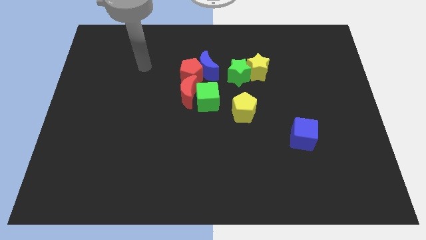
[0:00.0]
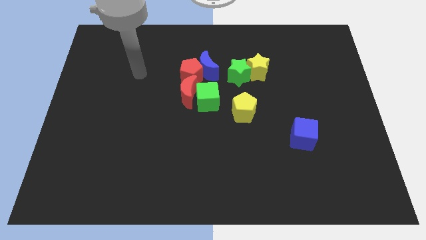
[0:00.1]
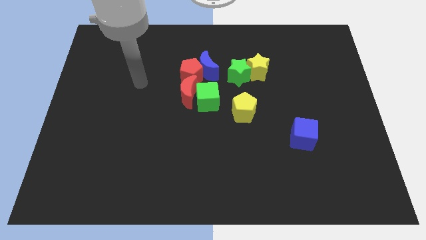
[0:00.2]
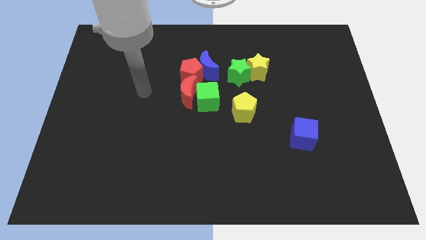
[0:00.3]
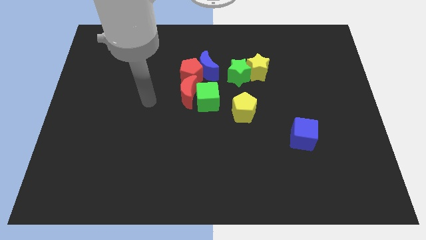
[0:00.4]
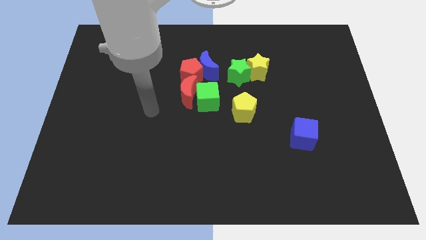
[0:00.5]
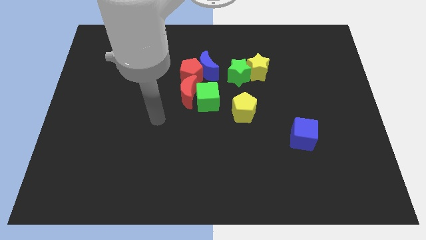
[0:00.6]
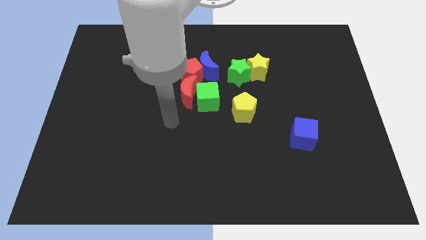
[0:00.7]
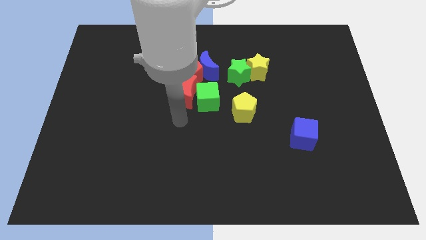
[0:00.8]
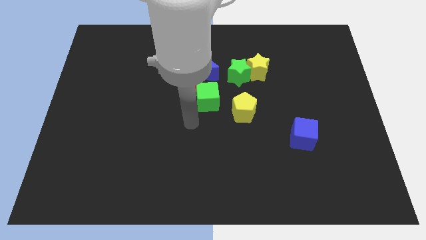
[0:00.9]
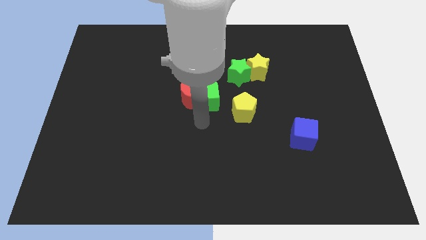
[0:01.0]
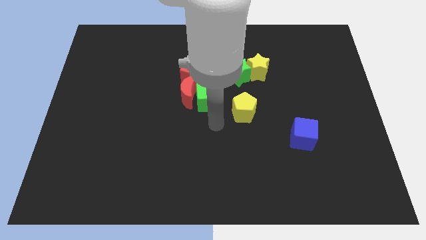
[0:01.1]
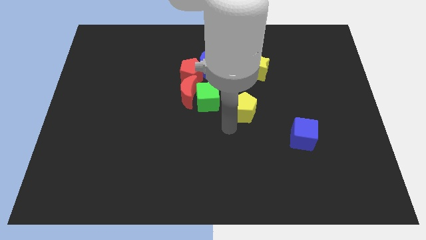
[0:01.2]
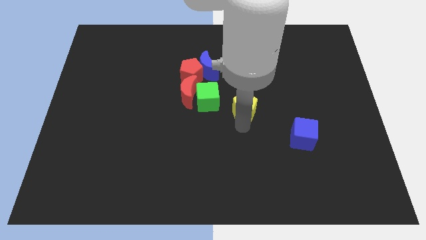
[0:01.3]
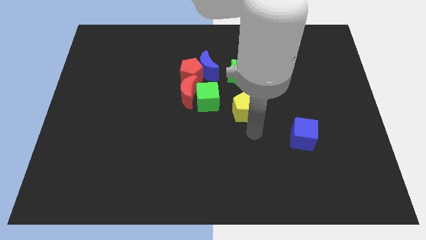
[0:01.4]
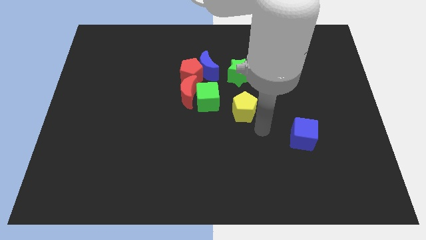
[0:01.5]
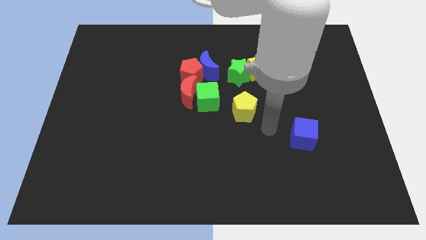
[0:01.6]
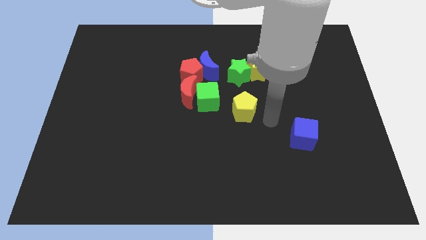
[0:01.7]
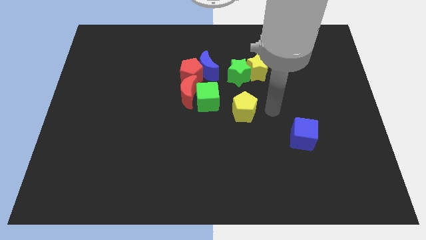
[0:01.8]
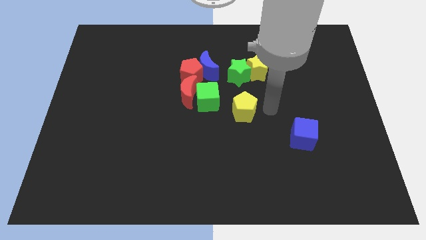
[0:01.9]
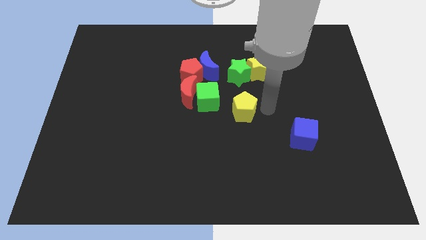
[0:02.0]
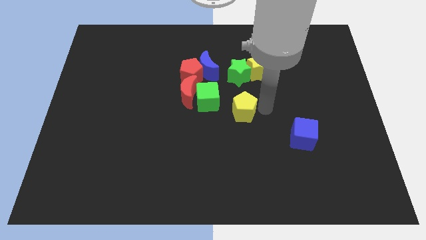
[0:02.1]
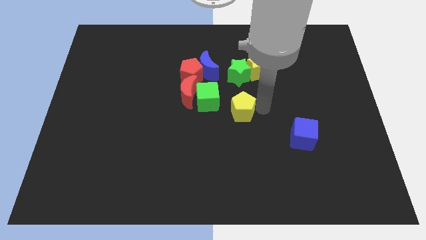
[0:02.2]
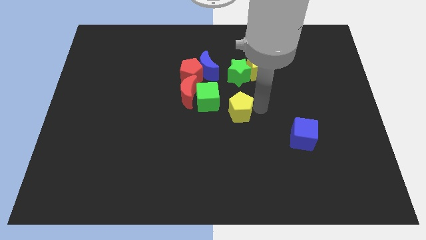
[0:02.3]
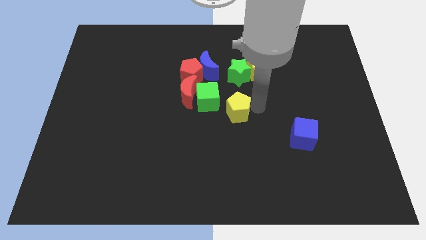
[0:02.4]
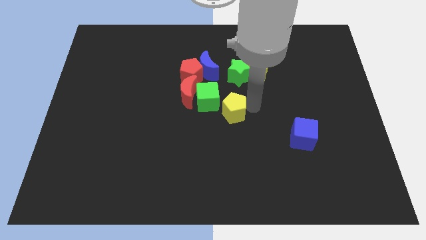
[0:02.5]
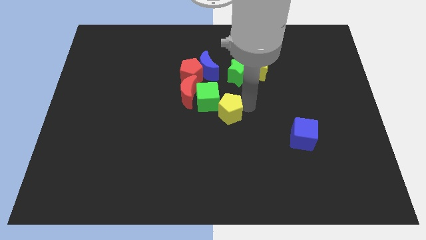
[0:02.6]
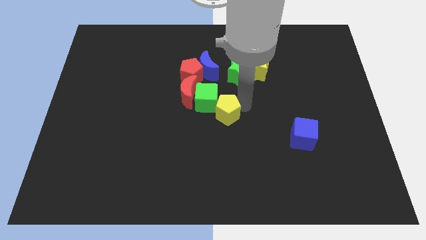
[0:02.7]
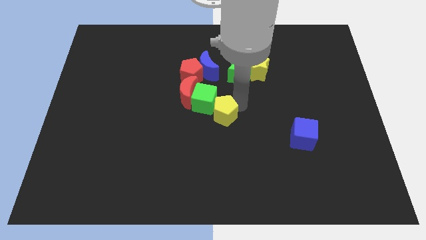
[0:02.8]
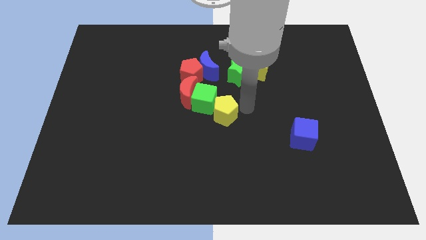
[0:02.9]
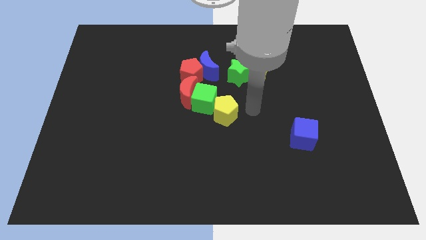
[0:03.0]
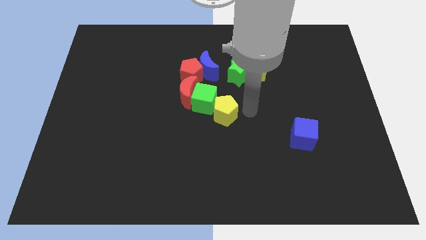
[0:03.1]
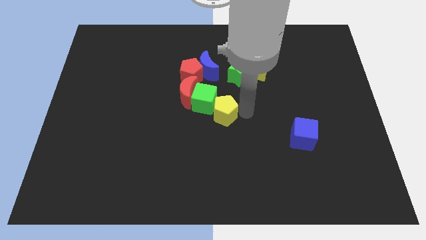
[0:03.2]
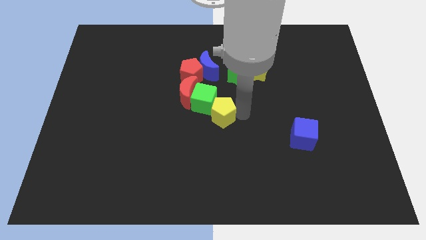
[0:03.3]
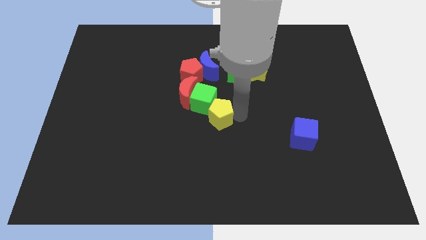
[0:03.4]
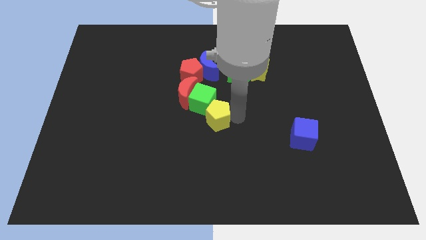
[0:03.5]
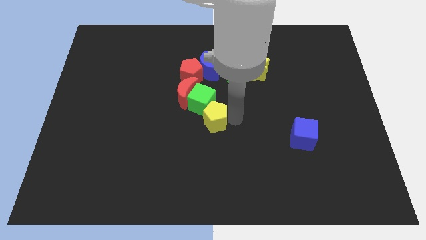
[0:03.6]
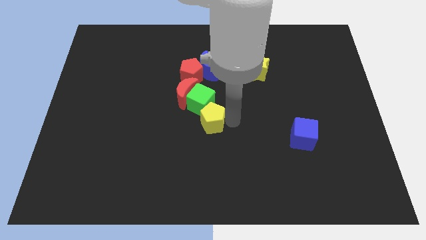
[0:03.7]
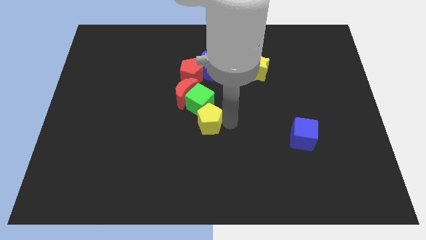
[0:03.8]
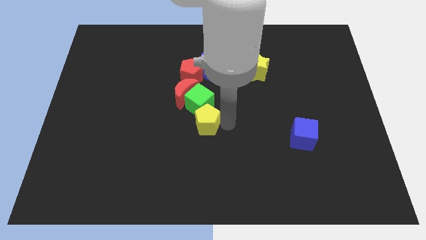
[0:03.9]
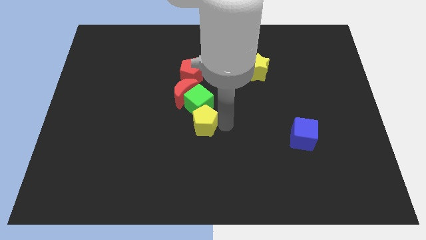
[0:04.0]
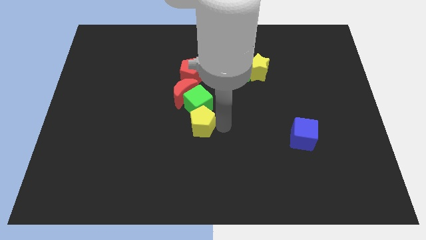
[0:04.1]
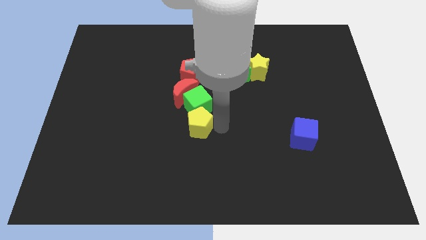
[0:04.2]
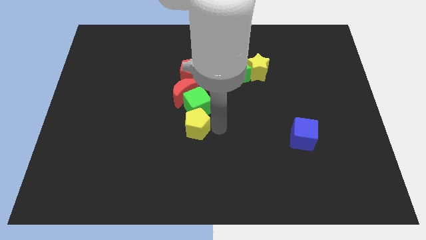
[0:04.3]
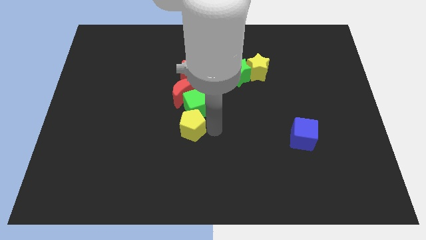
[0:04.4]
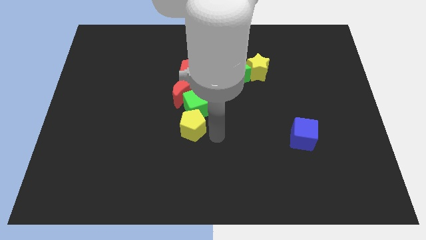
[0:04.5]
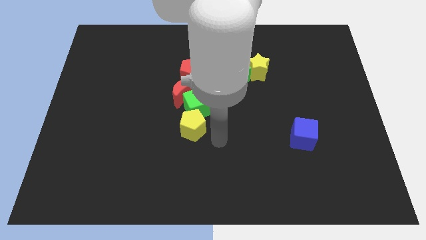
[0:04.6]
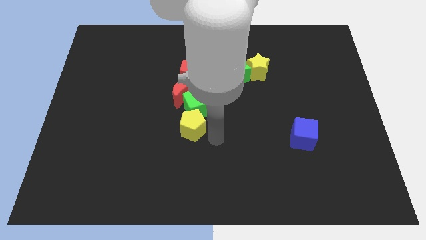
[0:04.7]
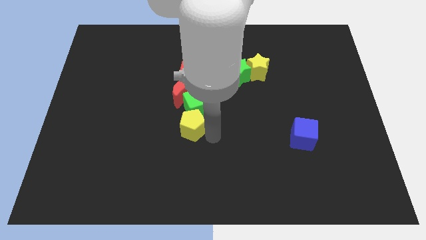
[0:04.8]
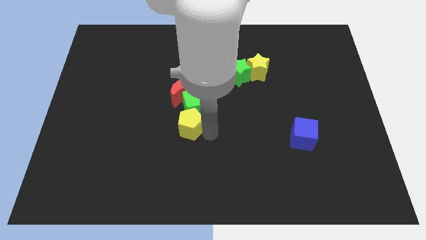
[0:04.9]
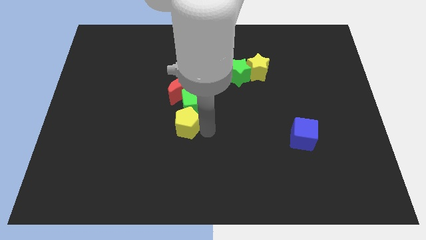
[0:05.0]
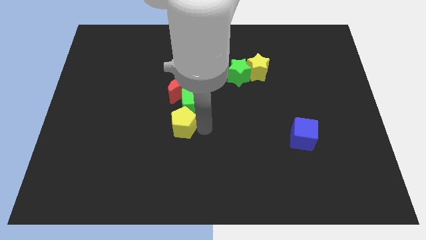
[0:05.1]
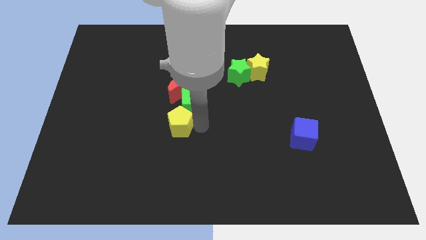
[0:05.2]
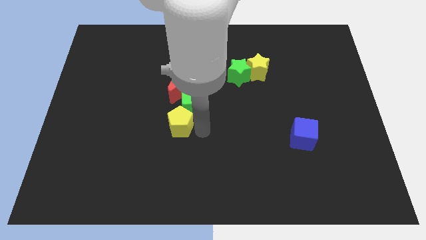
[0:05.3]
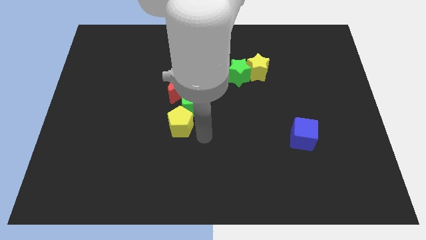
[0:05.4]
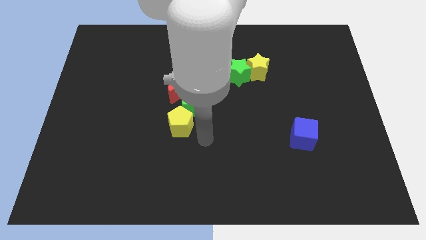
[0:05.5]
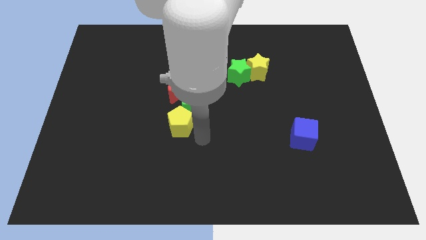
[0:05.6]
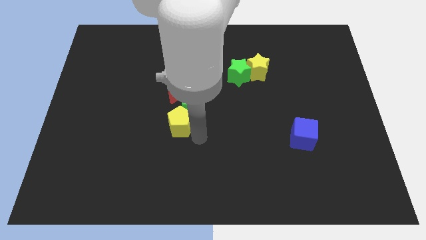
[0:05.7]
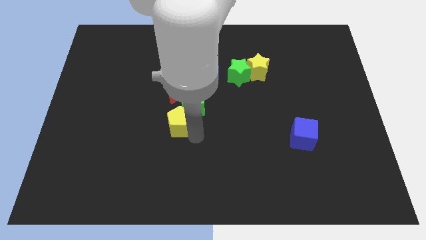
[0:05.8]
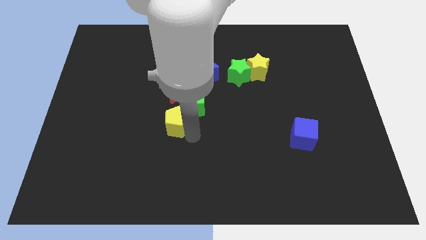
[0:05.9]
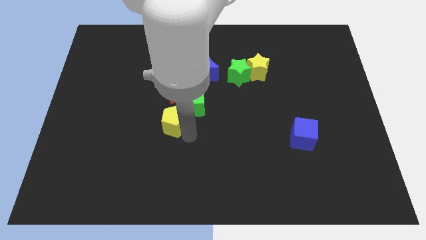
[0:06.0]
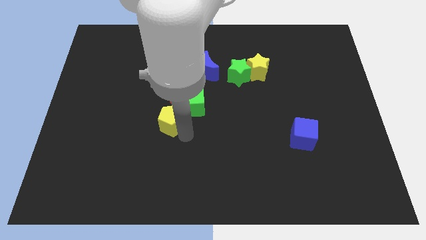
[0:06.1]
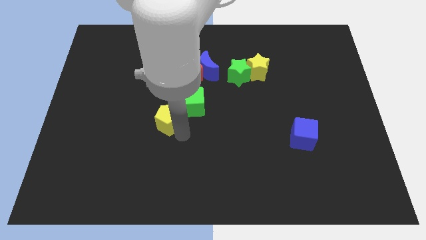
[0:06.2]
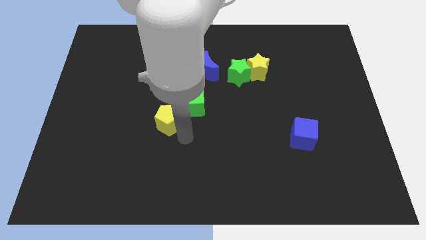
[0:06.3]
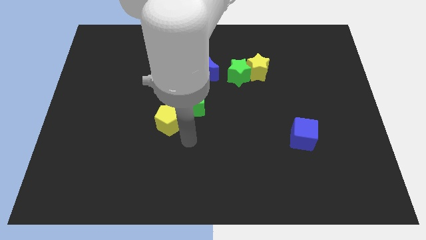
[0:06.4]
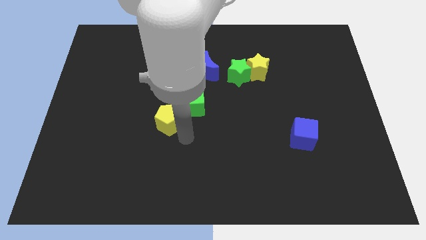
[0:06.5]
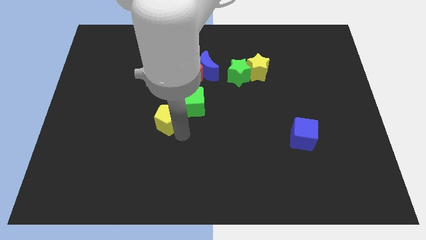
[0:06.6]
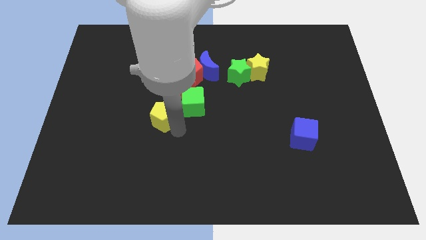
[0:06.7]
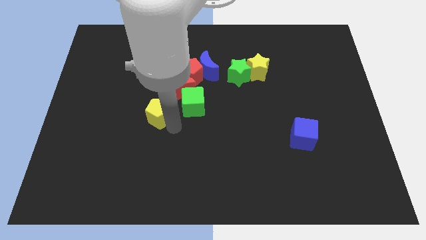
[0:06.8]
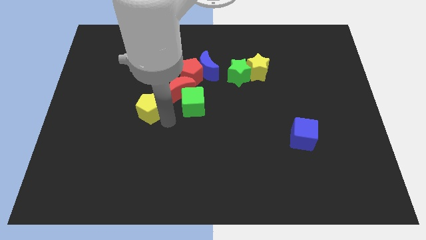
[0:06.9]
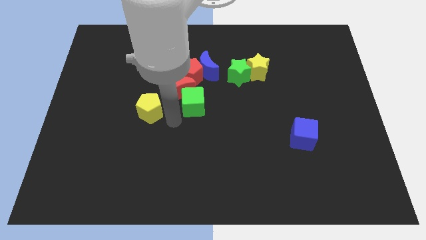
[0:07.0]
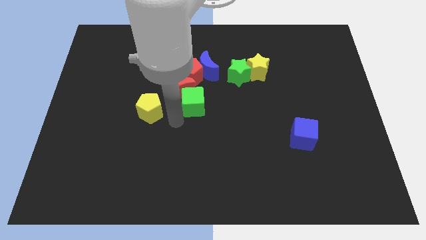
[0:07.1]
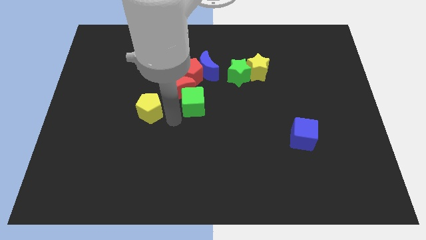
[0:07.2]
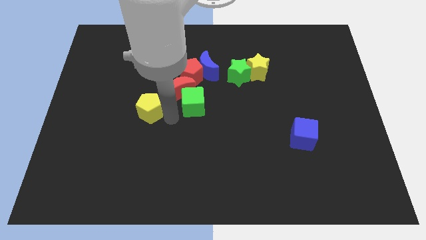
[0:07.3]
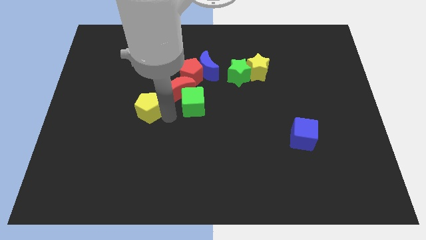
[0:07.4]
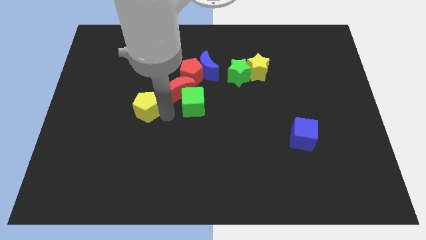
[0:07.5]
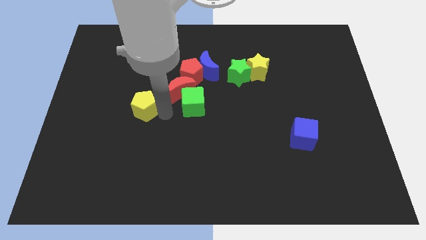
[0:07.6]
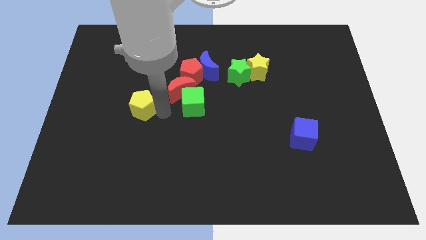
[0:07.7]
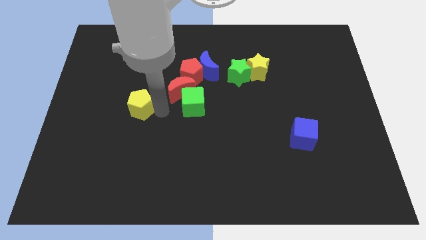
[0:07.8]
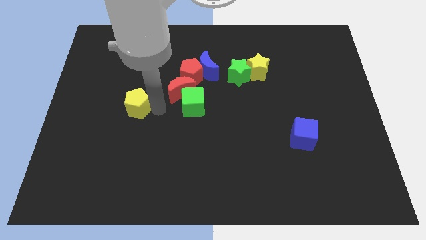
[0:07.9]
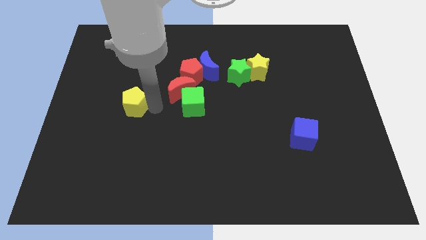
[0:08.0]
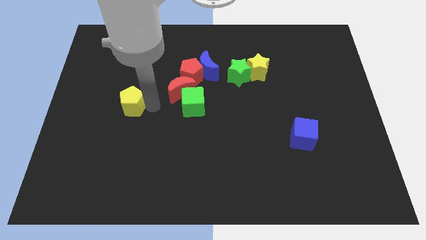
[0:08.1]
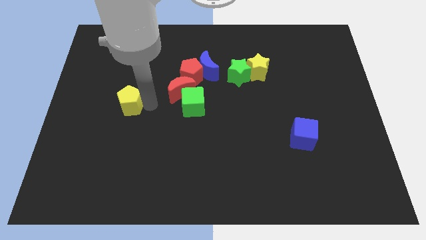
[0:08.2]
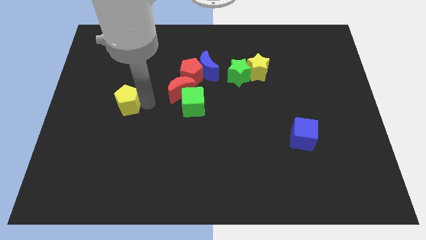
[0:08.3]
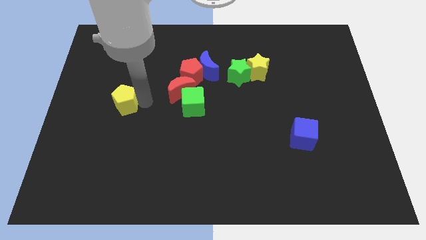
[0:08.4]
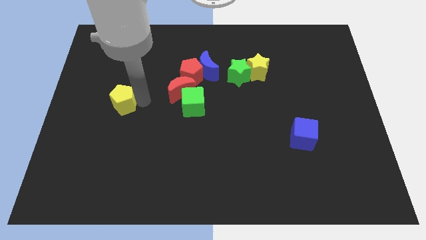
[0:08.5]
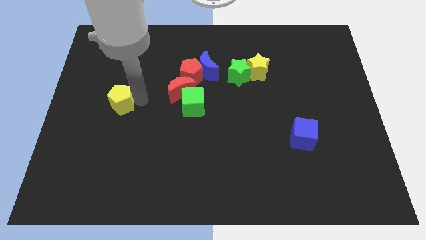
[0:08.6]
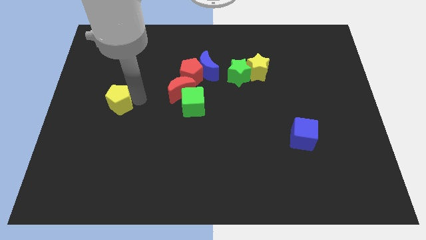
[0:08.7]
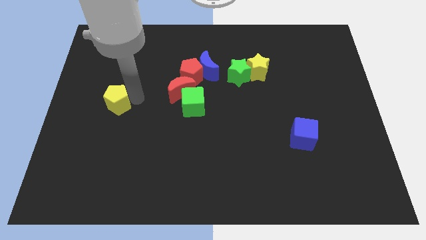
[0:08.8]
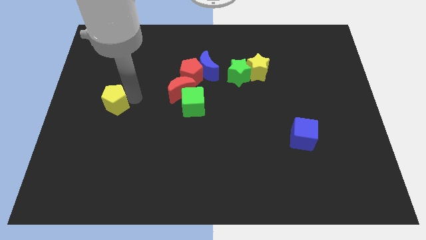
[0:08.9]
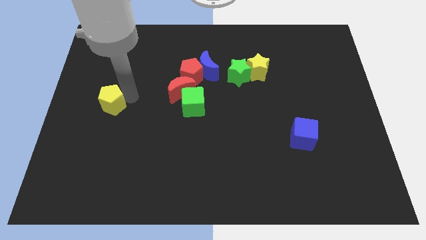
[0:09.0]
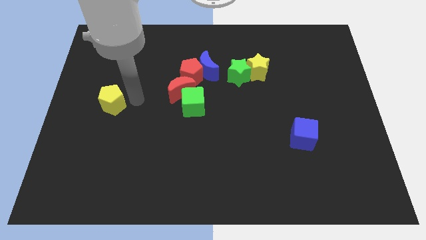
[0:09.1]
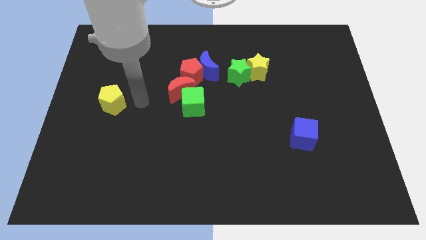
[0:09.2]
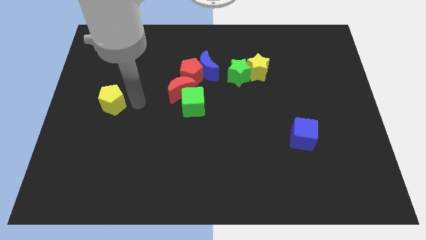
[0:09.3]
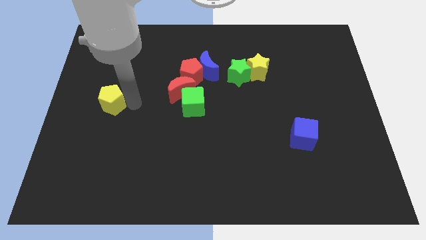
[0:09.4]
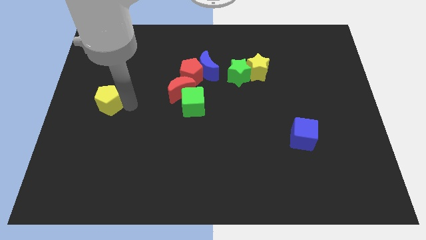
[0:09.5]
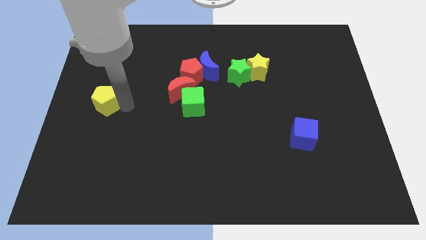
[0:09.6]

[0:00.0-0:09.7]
put the yellow pentagon to the left side
